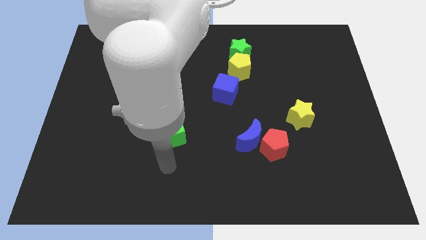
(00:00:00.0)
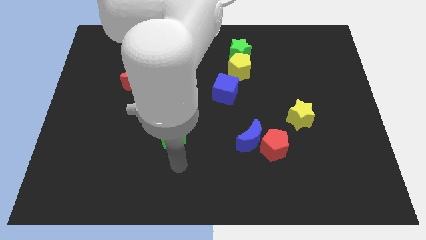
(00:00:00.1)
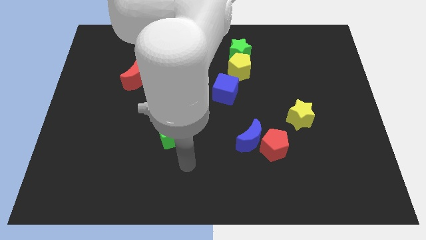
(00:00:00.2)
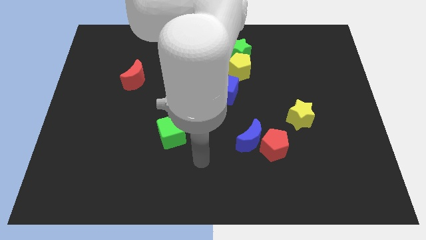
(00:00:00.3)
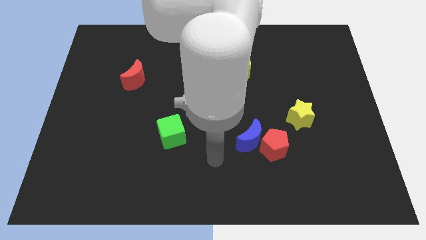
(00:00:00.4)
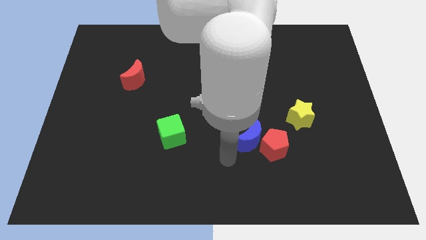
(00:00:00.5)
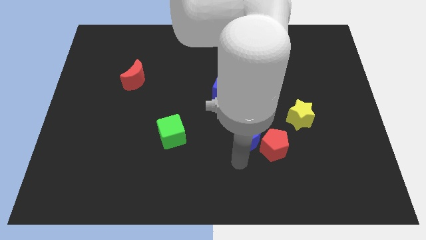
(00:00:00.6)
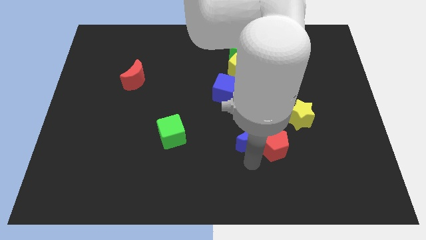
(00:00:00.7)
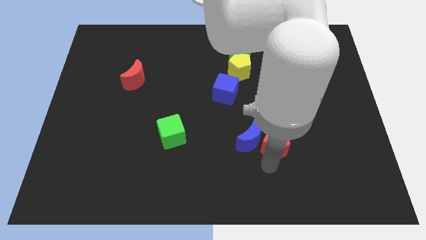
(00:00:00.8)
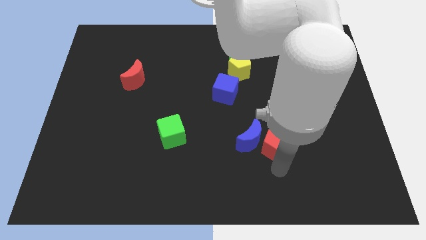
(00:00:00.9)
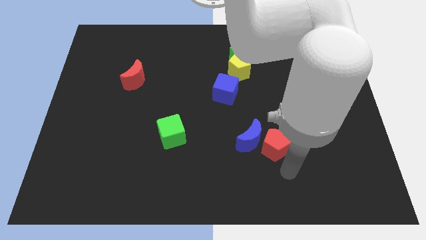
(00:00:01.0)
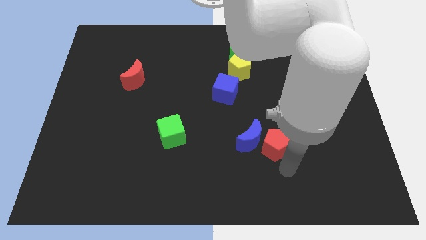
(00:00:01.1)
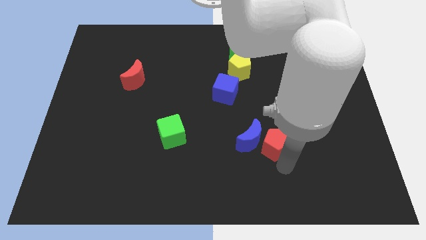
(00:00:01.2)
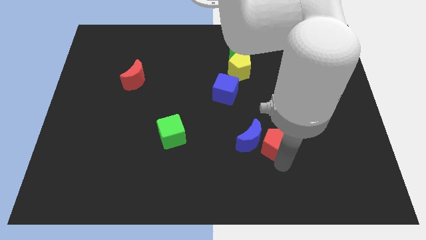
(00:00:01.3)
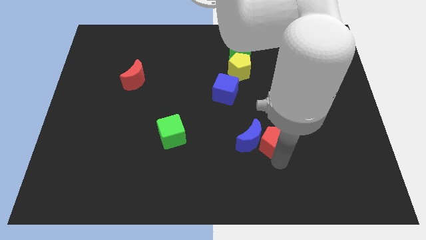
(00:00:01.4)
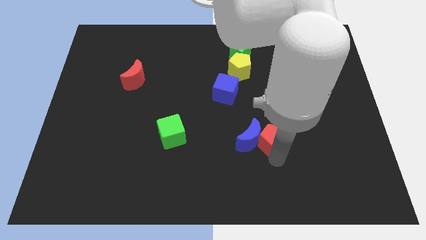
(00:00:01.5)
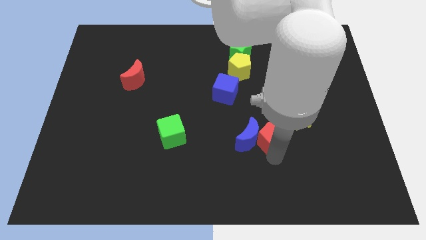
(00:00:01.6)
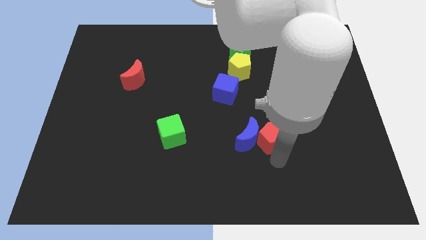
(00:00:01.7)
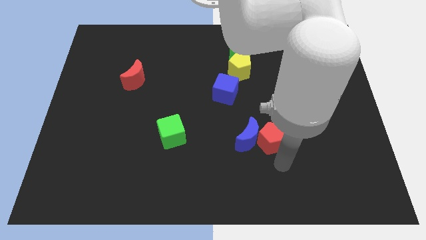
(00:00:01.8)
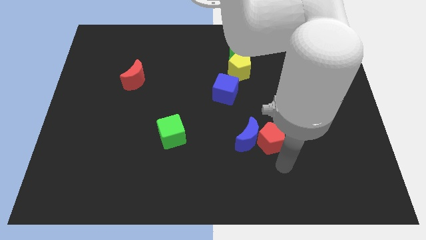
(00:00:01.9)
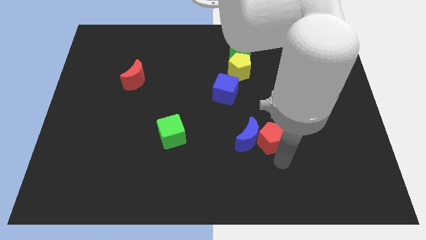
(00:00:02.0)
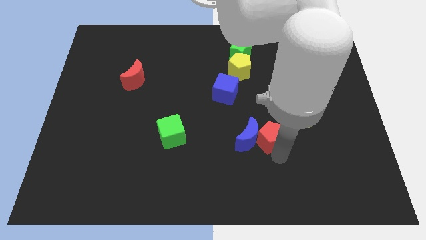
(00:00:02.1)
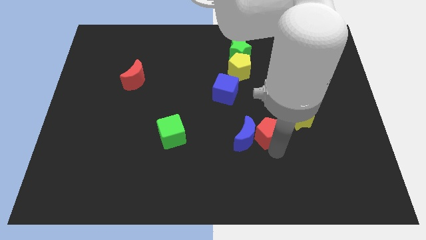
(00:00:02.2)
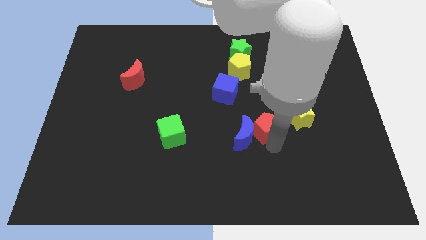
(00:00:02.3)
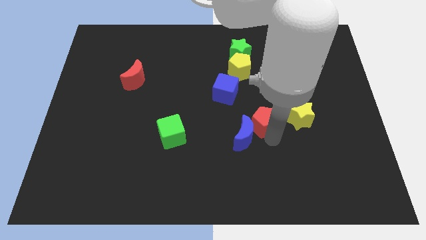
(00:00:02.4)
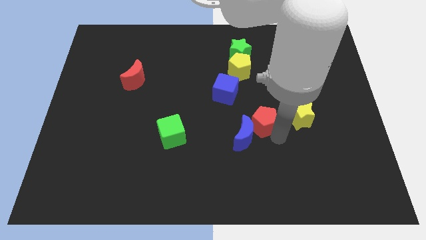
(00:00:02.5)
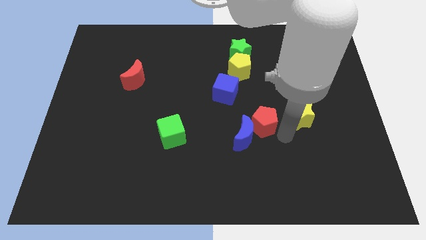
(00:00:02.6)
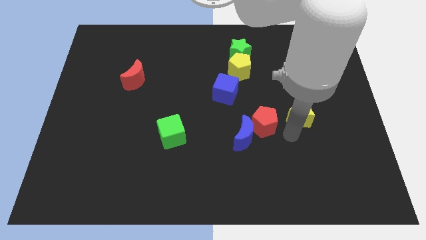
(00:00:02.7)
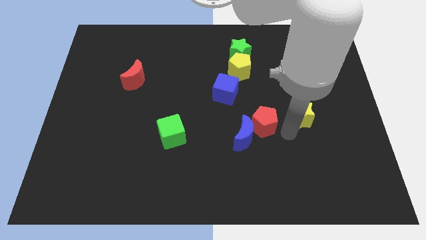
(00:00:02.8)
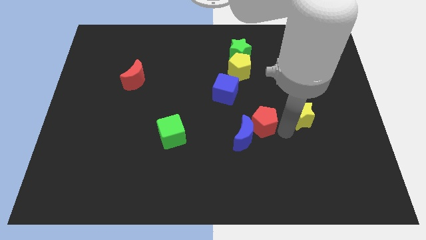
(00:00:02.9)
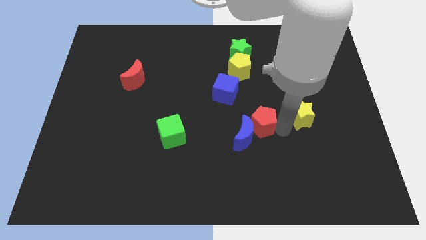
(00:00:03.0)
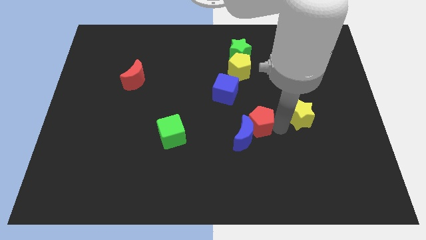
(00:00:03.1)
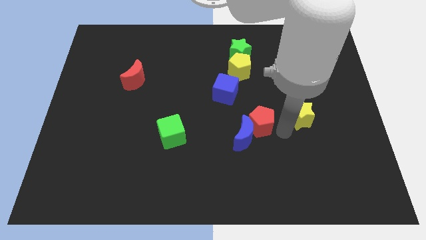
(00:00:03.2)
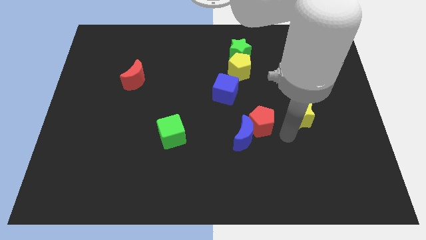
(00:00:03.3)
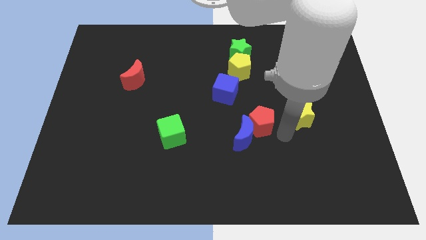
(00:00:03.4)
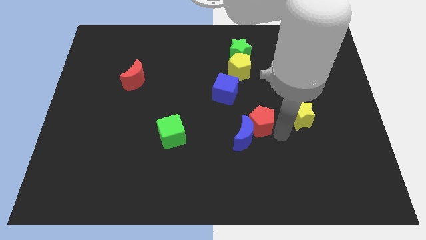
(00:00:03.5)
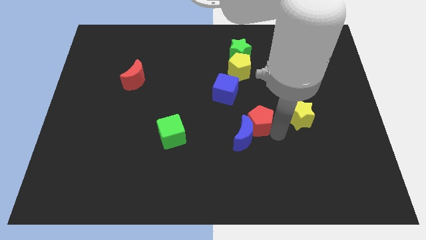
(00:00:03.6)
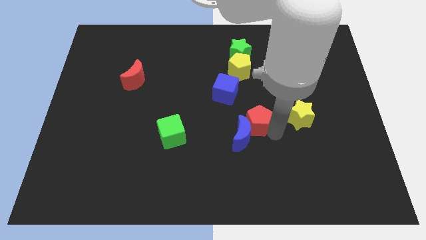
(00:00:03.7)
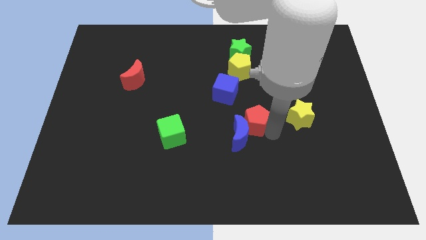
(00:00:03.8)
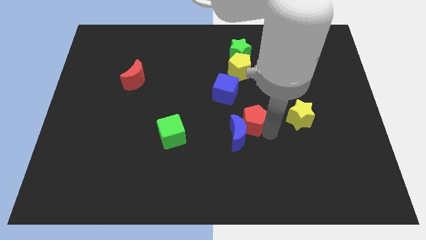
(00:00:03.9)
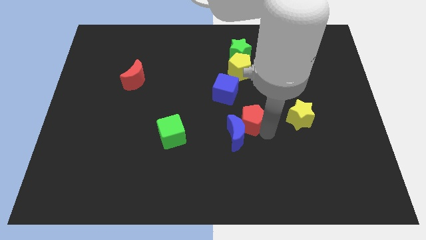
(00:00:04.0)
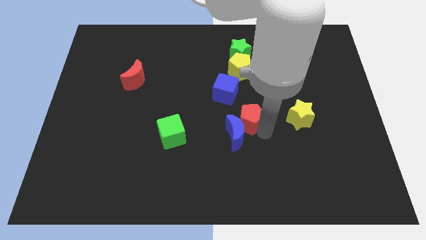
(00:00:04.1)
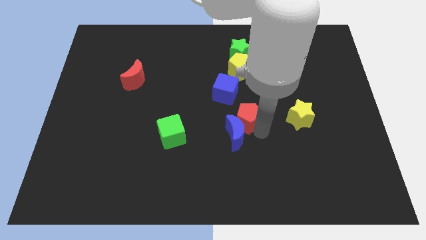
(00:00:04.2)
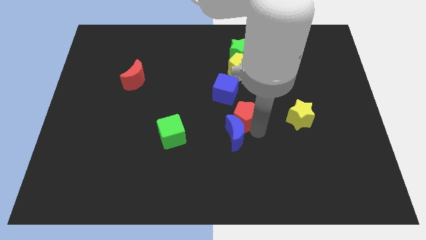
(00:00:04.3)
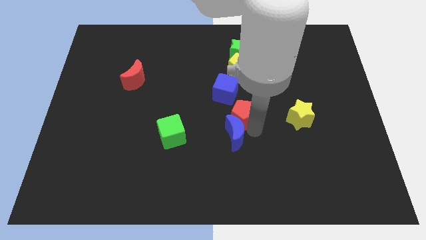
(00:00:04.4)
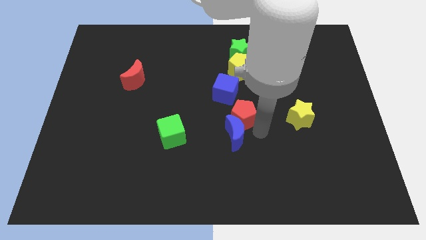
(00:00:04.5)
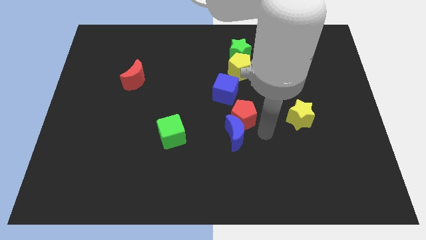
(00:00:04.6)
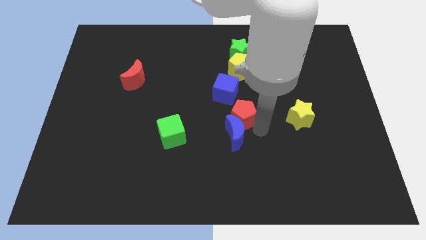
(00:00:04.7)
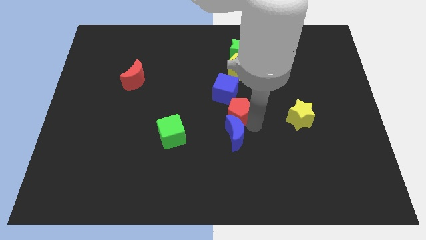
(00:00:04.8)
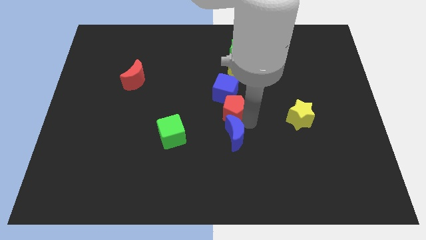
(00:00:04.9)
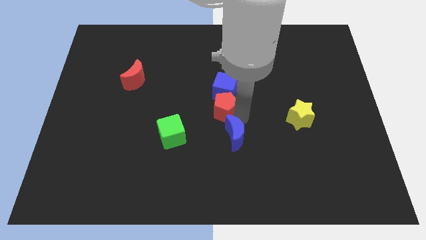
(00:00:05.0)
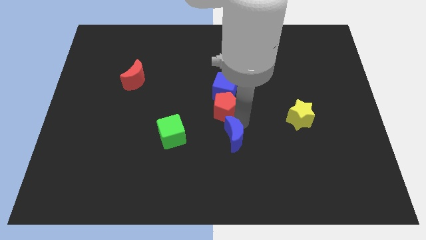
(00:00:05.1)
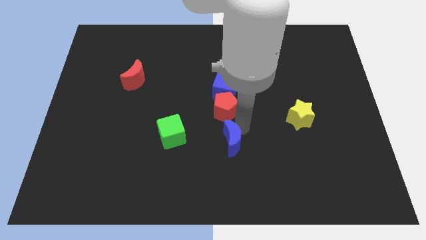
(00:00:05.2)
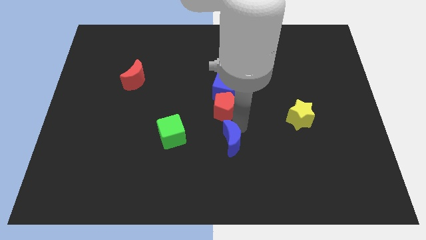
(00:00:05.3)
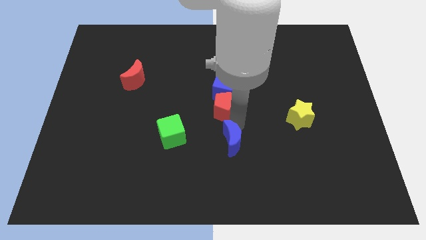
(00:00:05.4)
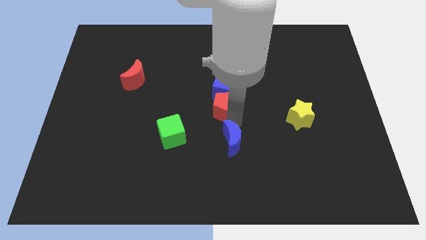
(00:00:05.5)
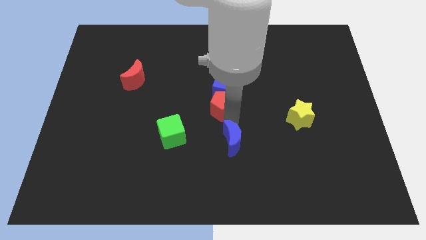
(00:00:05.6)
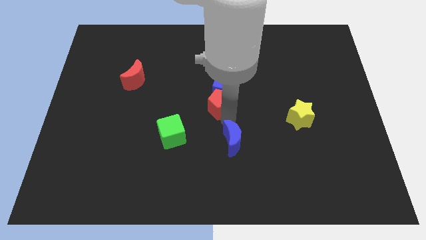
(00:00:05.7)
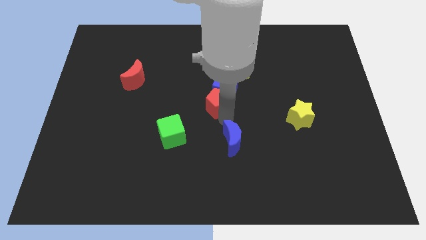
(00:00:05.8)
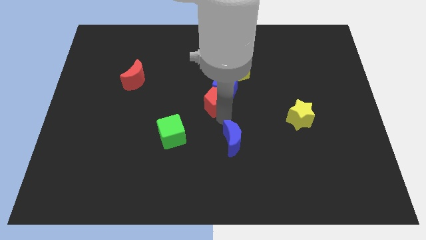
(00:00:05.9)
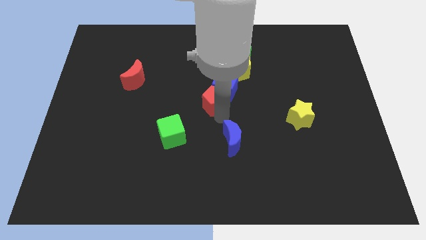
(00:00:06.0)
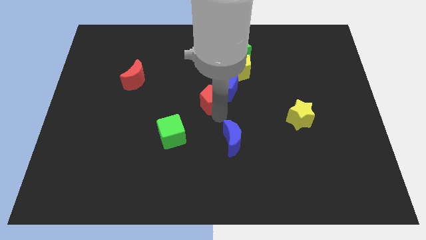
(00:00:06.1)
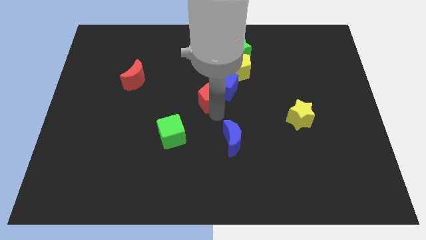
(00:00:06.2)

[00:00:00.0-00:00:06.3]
move the red pentagon diagonally down and to the left of the yellow pentagon

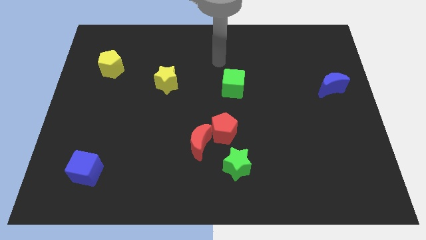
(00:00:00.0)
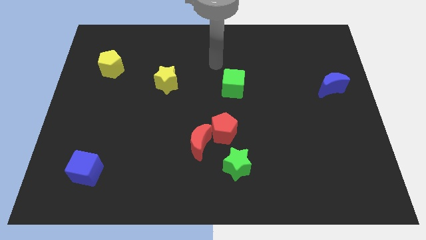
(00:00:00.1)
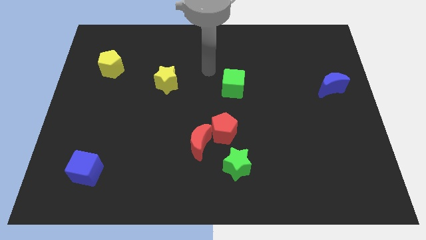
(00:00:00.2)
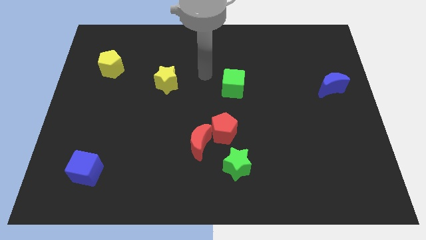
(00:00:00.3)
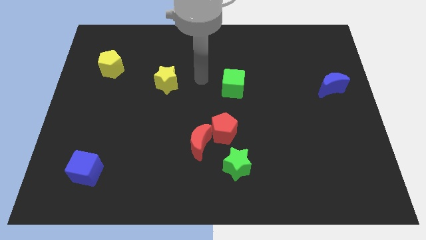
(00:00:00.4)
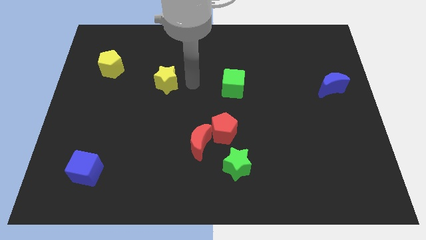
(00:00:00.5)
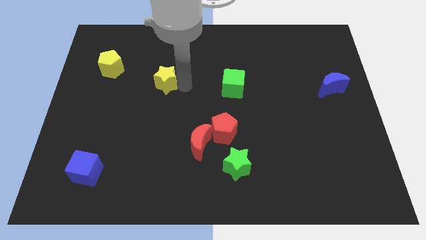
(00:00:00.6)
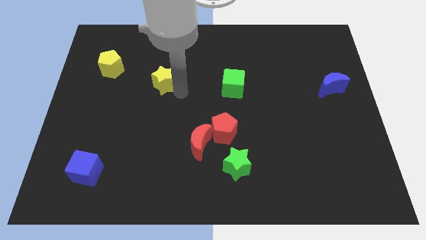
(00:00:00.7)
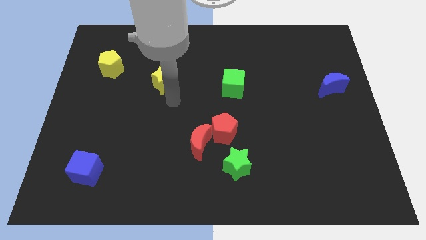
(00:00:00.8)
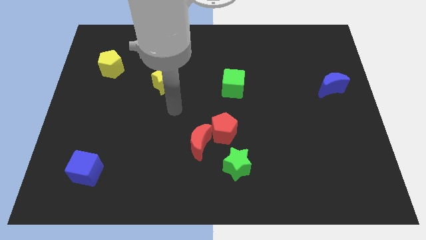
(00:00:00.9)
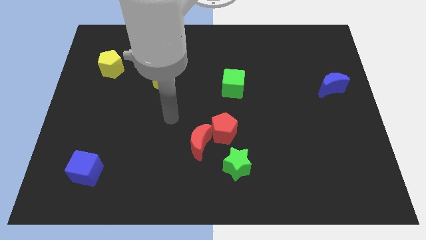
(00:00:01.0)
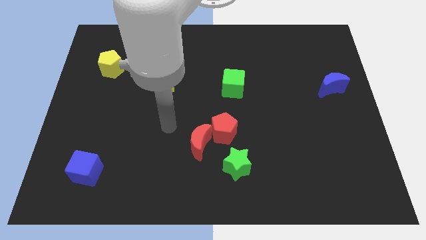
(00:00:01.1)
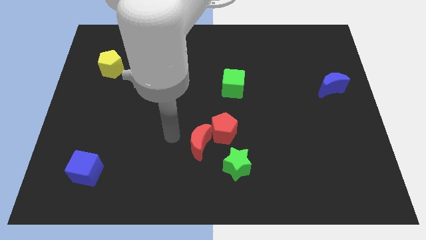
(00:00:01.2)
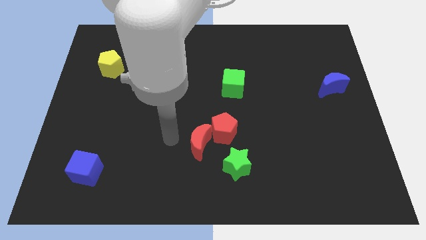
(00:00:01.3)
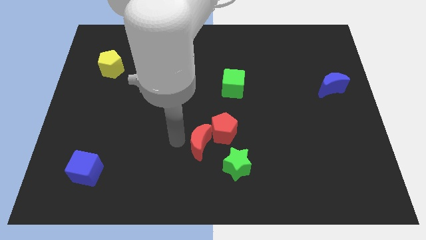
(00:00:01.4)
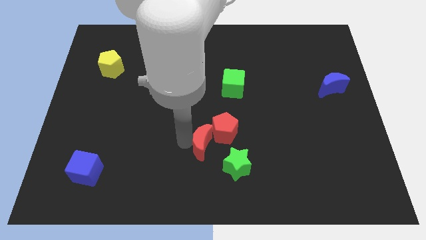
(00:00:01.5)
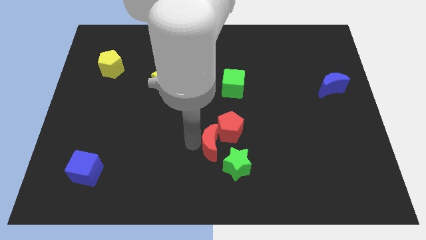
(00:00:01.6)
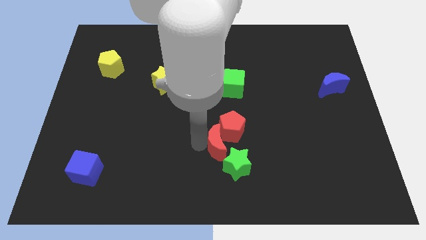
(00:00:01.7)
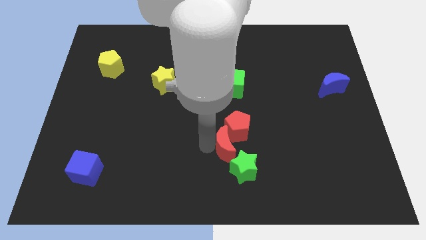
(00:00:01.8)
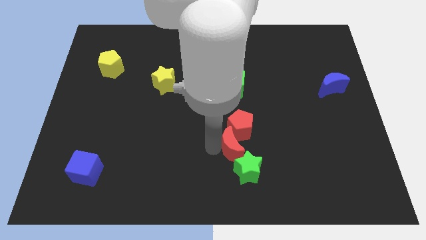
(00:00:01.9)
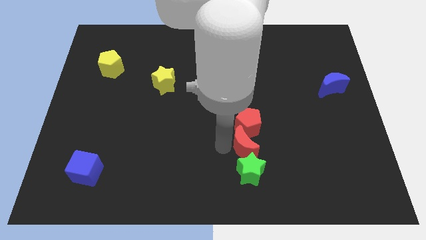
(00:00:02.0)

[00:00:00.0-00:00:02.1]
slide the red moon to the bottom right of the red pentagon
